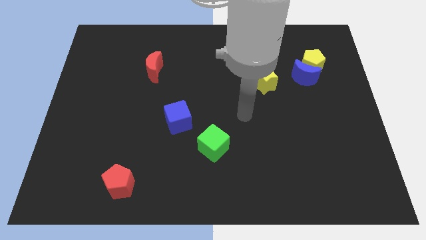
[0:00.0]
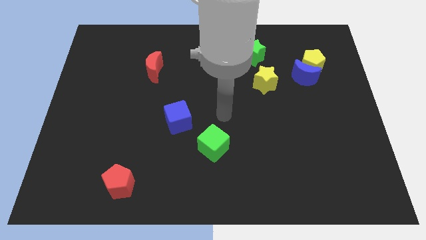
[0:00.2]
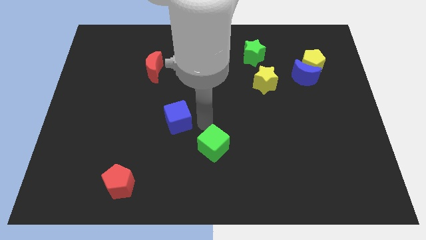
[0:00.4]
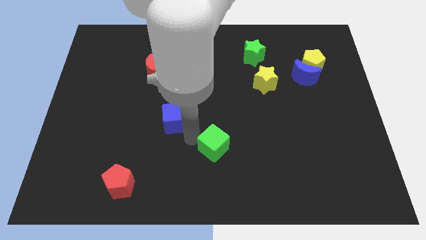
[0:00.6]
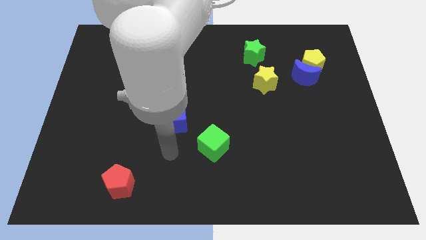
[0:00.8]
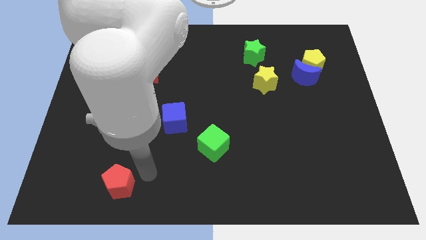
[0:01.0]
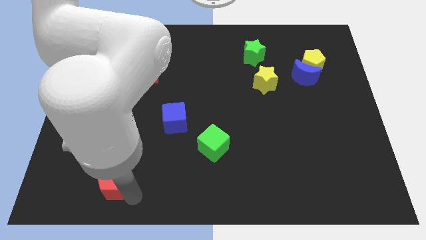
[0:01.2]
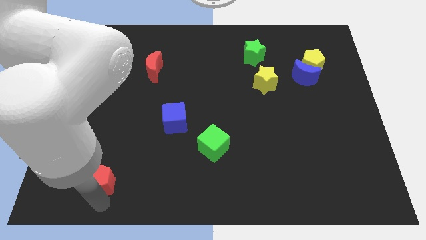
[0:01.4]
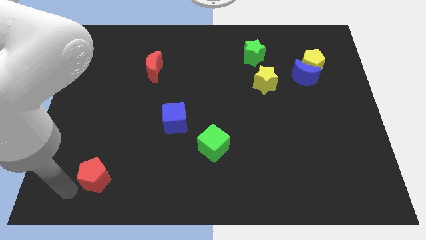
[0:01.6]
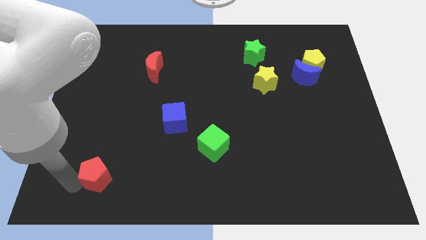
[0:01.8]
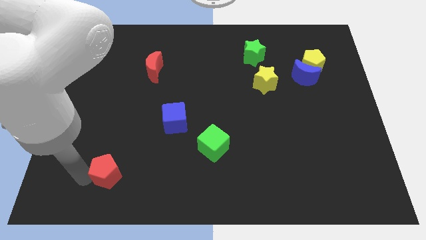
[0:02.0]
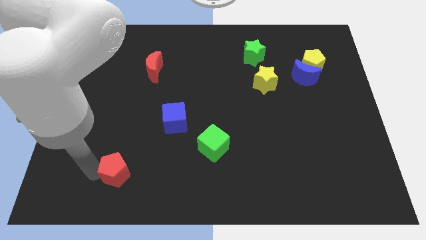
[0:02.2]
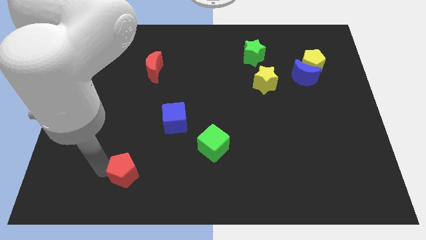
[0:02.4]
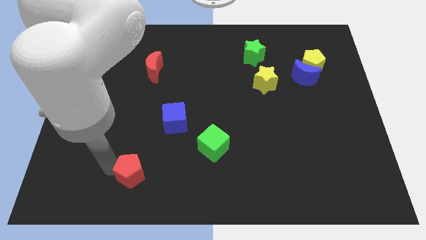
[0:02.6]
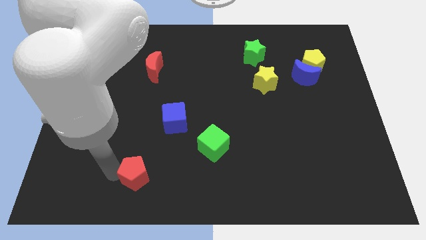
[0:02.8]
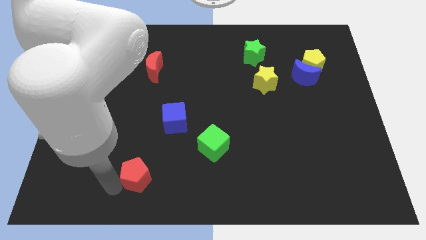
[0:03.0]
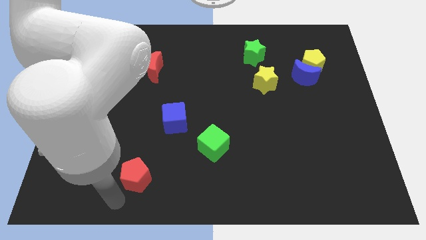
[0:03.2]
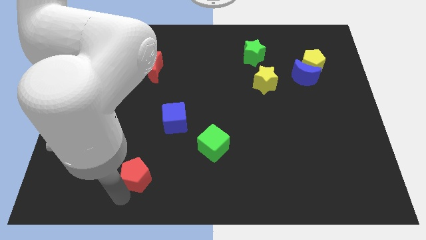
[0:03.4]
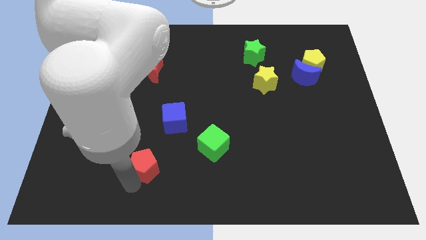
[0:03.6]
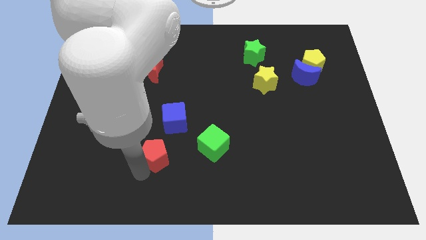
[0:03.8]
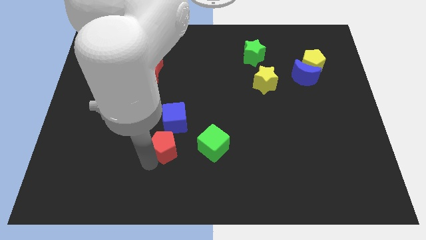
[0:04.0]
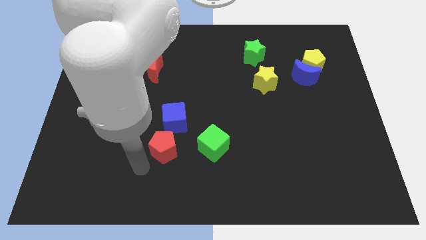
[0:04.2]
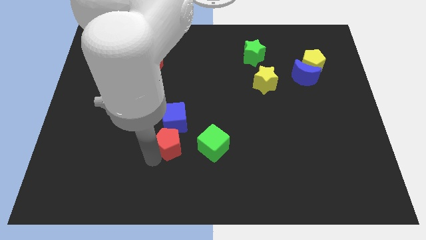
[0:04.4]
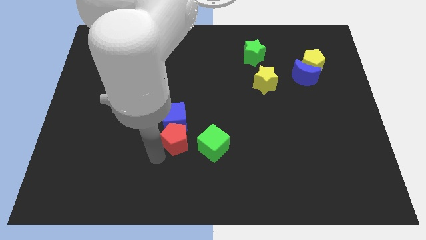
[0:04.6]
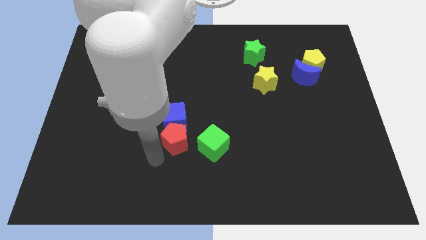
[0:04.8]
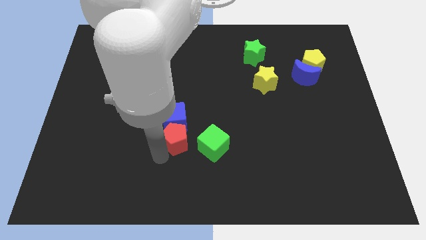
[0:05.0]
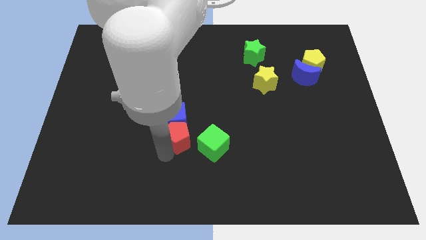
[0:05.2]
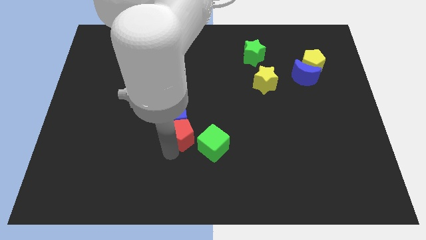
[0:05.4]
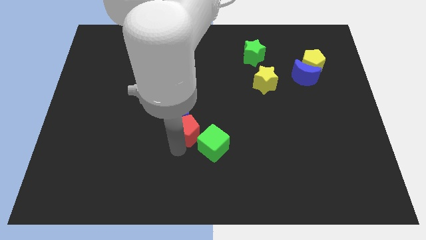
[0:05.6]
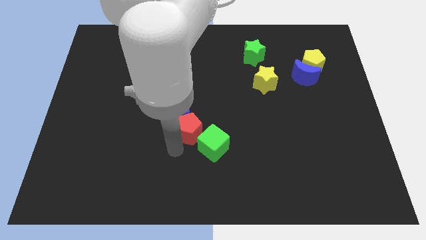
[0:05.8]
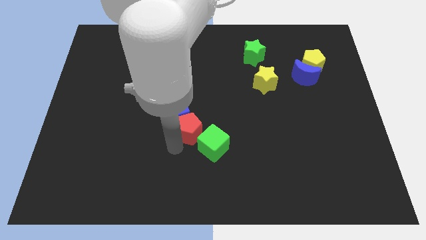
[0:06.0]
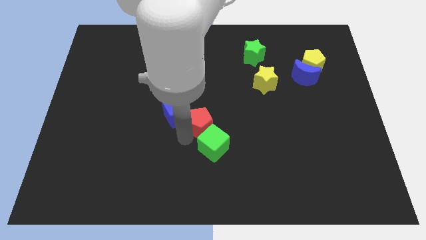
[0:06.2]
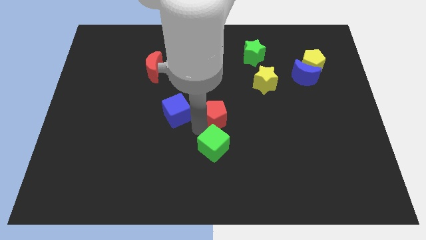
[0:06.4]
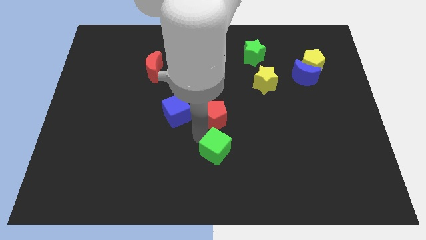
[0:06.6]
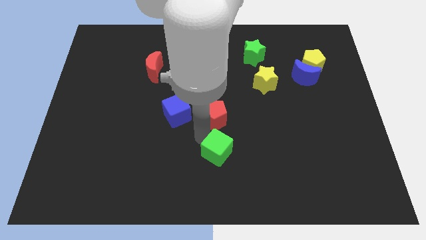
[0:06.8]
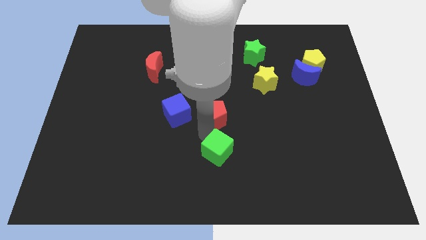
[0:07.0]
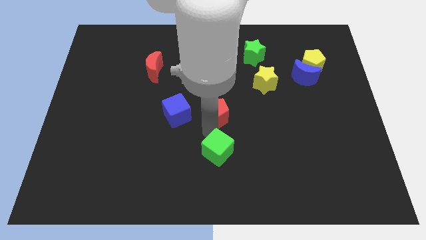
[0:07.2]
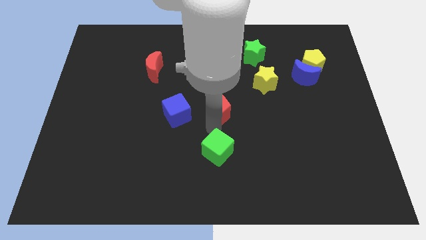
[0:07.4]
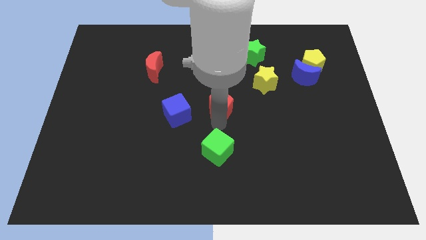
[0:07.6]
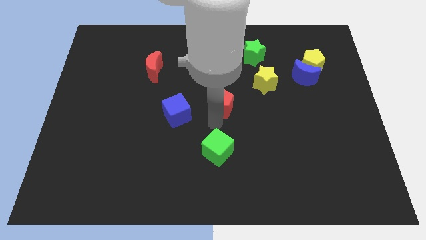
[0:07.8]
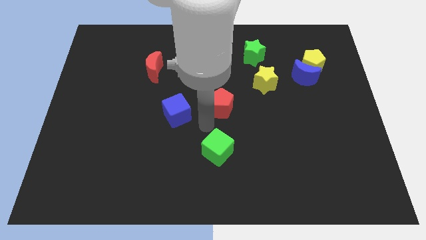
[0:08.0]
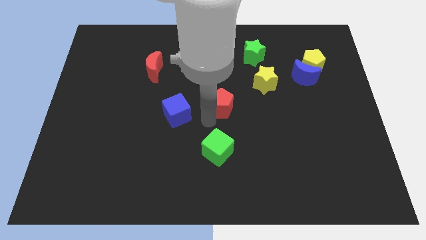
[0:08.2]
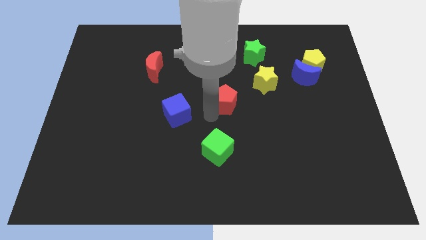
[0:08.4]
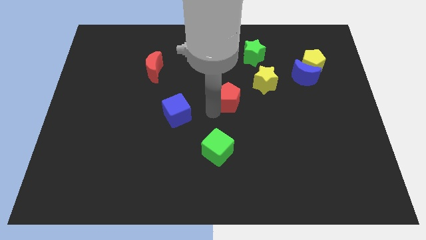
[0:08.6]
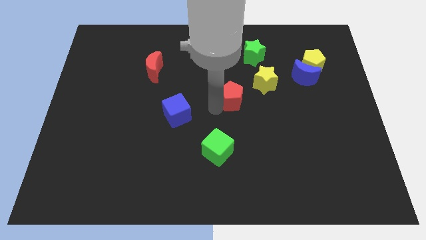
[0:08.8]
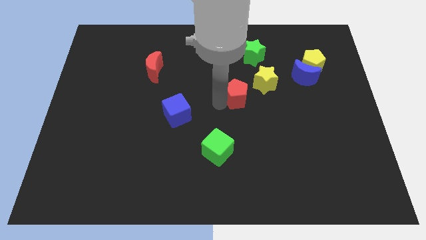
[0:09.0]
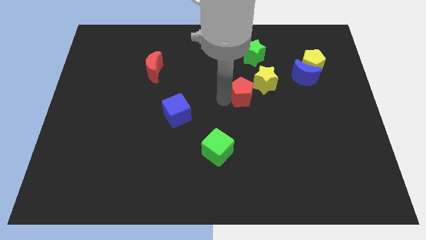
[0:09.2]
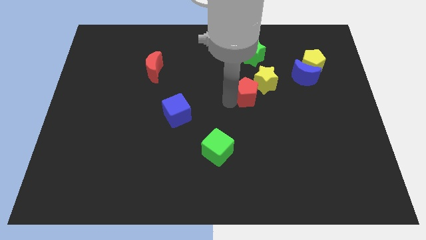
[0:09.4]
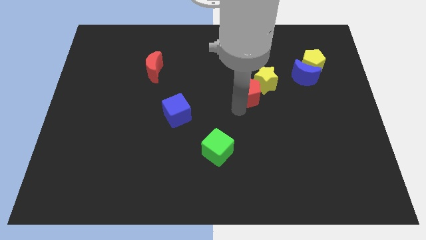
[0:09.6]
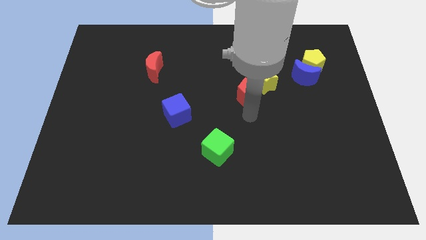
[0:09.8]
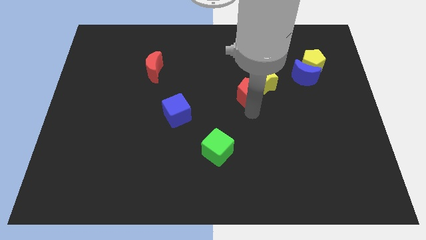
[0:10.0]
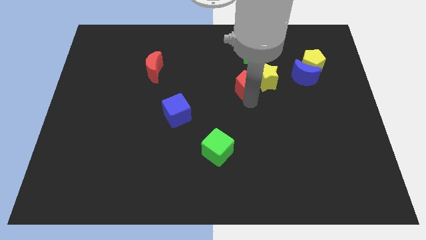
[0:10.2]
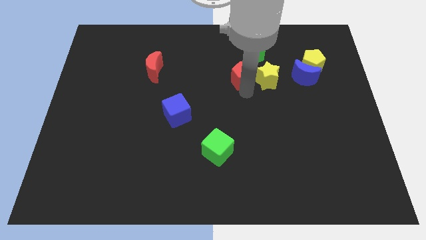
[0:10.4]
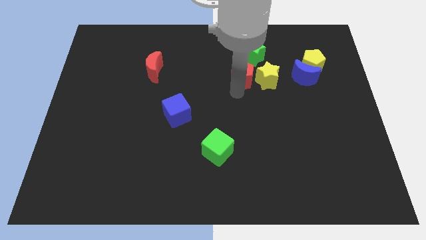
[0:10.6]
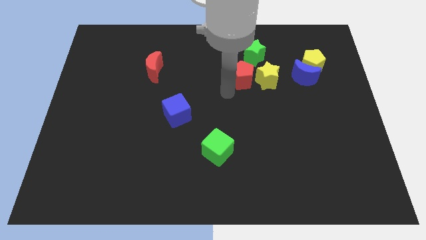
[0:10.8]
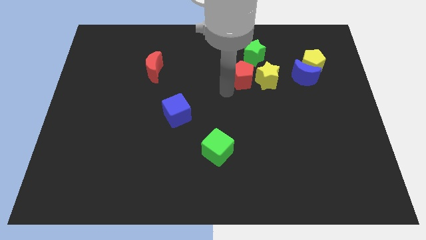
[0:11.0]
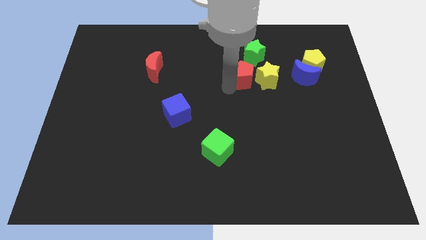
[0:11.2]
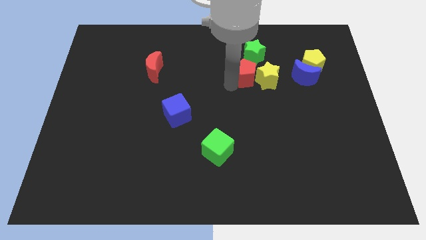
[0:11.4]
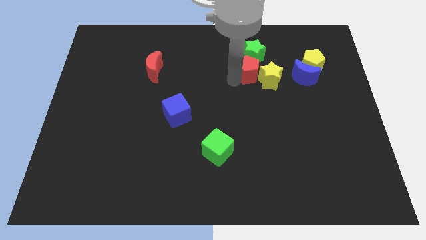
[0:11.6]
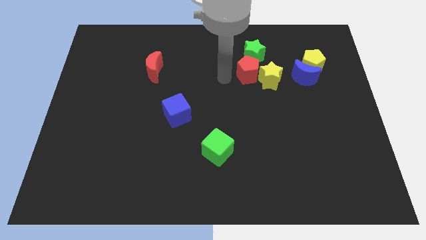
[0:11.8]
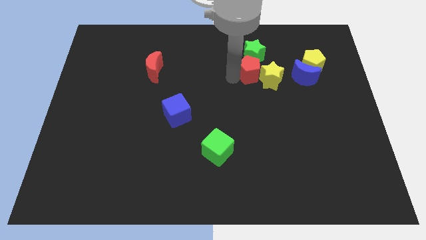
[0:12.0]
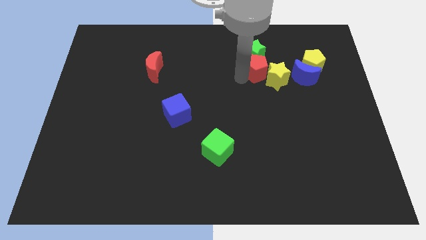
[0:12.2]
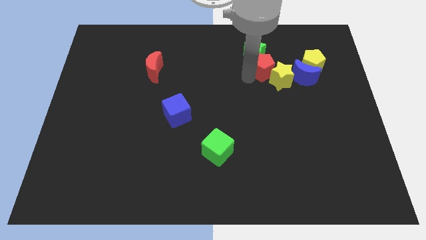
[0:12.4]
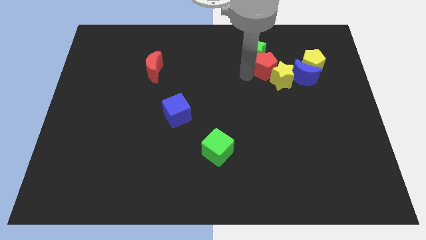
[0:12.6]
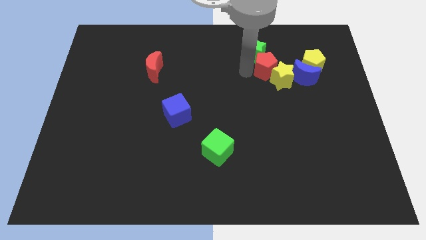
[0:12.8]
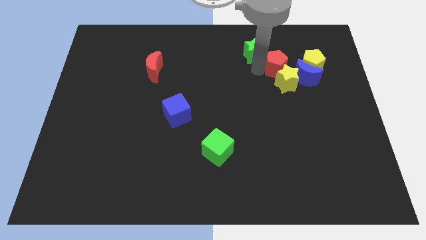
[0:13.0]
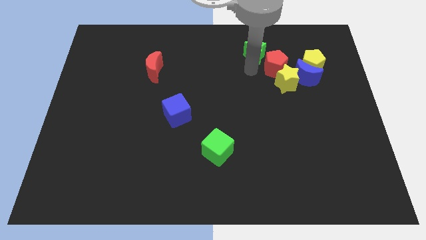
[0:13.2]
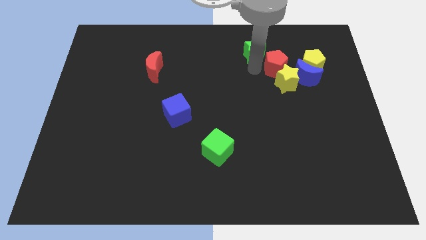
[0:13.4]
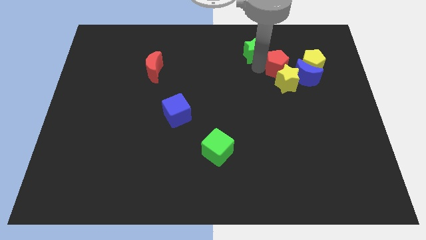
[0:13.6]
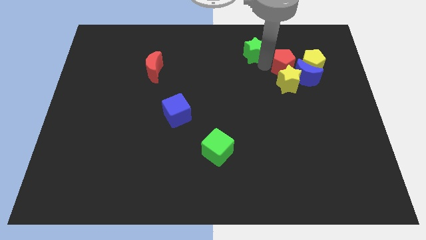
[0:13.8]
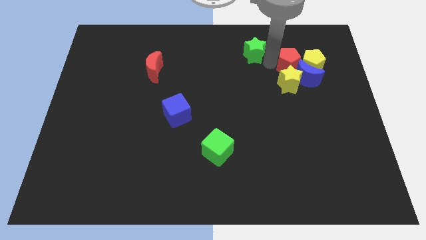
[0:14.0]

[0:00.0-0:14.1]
move the red pentagon to the yellow pentagon
